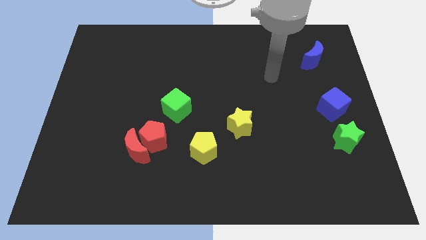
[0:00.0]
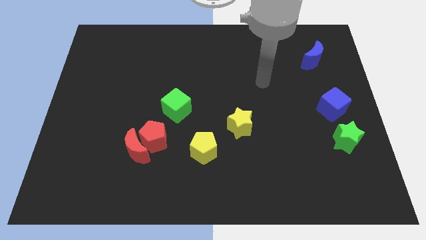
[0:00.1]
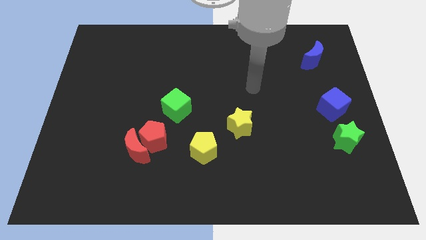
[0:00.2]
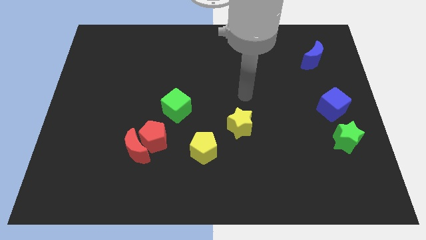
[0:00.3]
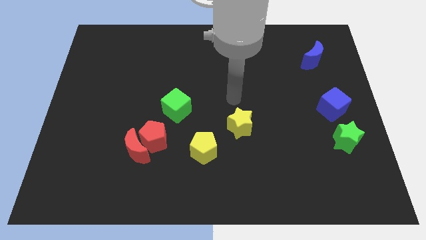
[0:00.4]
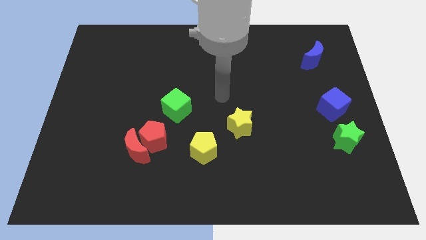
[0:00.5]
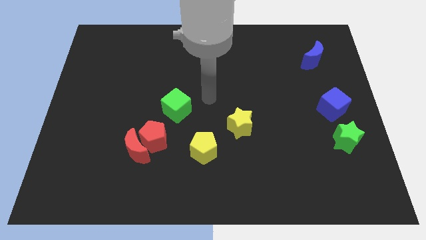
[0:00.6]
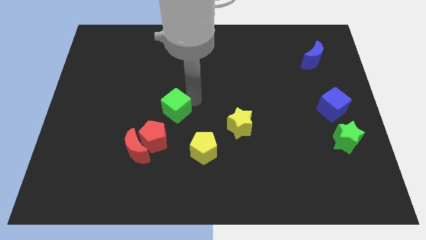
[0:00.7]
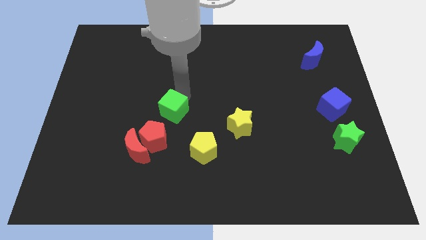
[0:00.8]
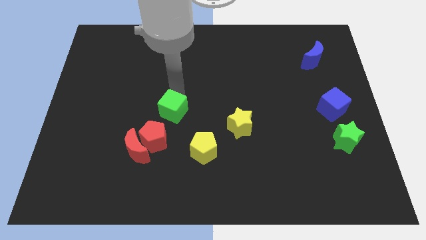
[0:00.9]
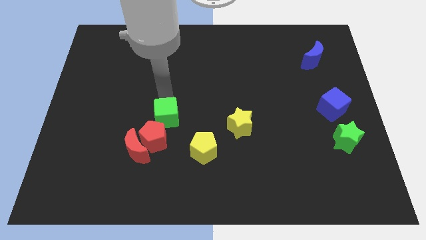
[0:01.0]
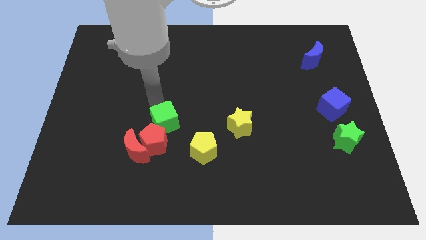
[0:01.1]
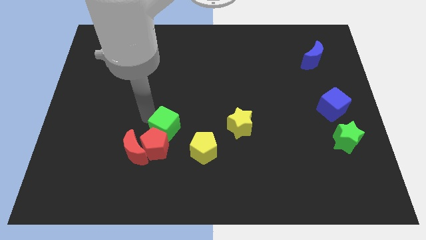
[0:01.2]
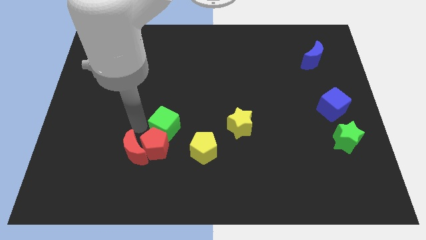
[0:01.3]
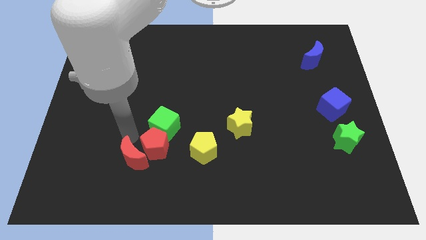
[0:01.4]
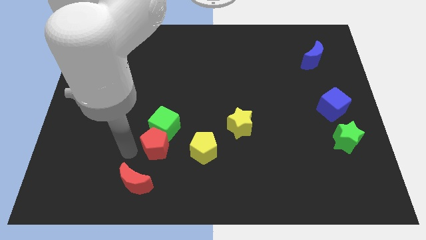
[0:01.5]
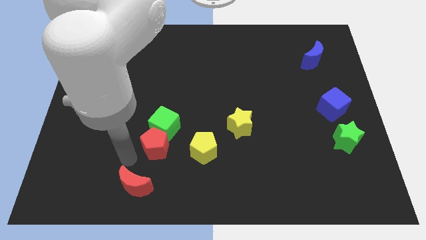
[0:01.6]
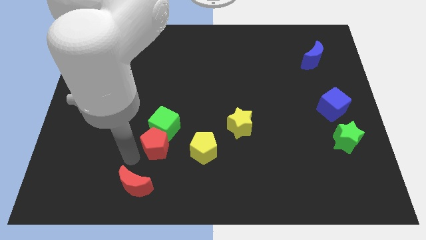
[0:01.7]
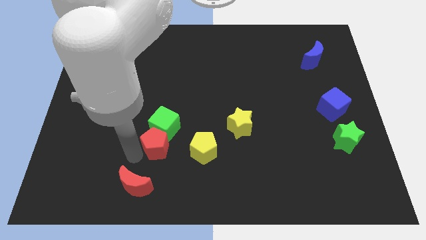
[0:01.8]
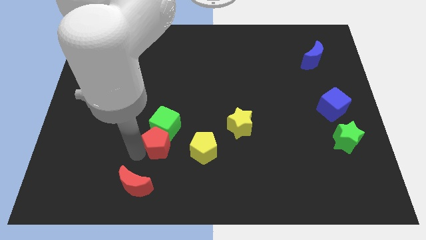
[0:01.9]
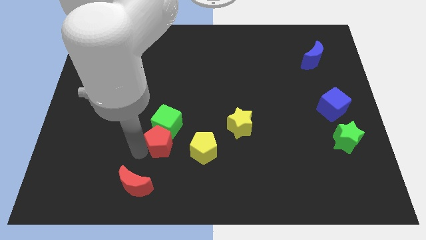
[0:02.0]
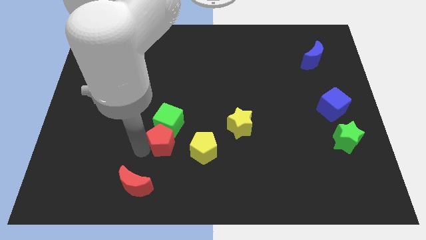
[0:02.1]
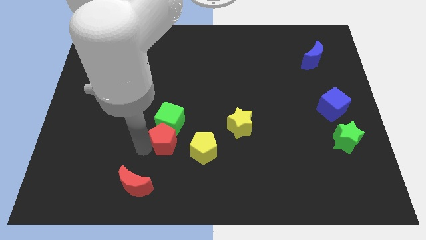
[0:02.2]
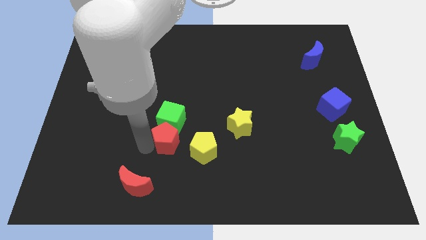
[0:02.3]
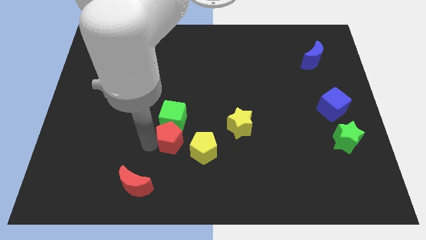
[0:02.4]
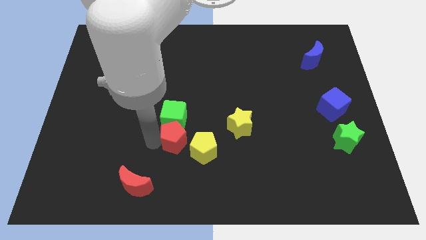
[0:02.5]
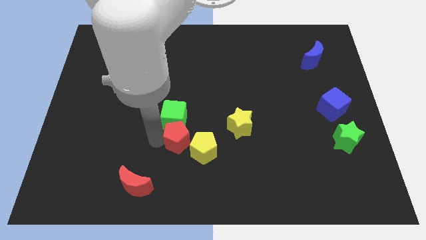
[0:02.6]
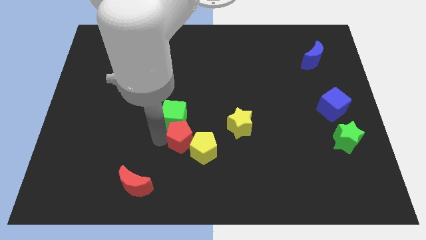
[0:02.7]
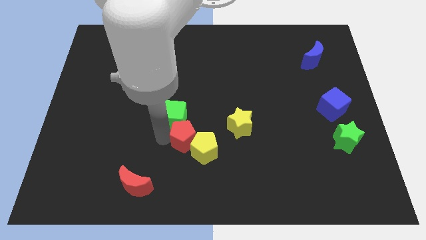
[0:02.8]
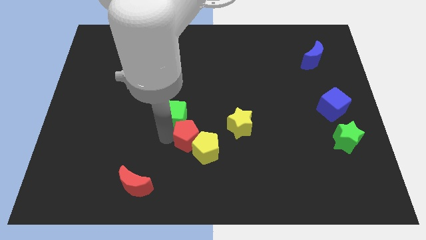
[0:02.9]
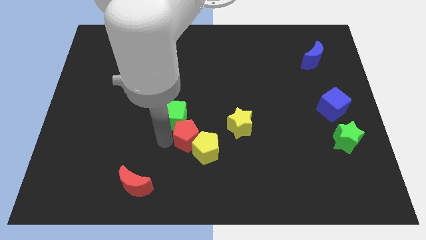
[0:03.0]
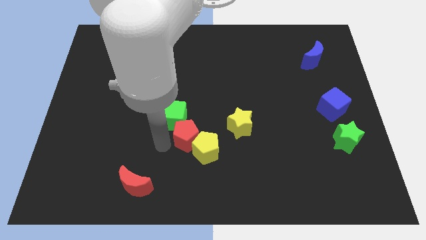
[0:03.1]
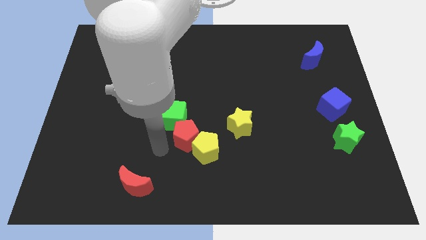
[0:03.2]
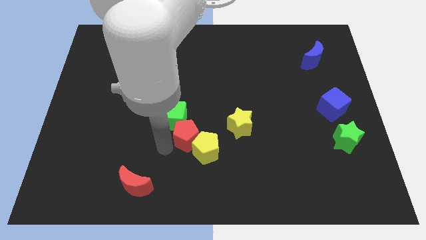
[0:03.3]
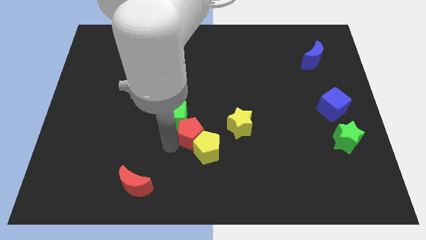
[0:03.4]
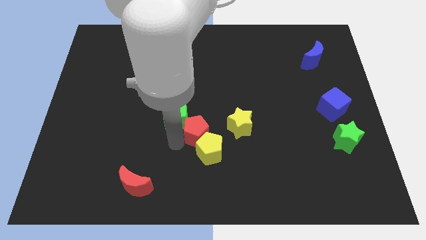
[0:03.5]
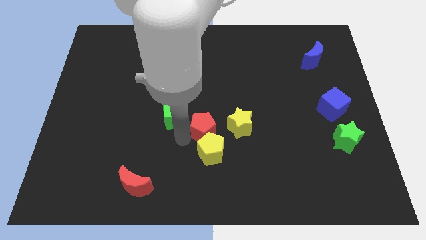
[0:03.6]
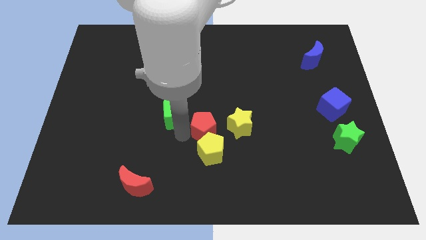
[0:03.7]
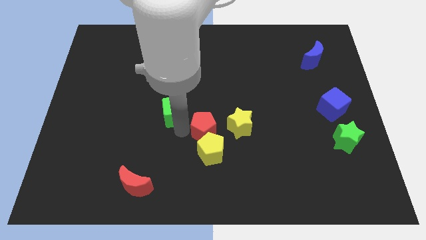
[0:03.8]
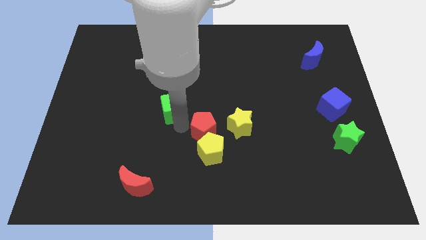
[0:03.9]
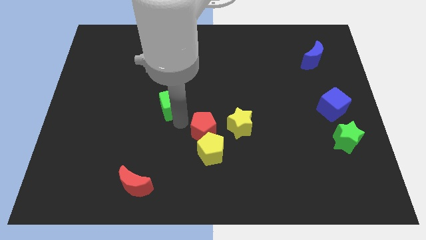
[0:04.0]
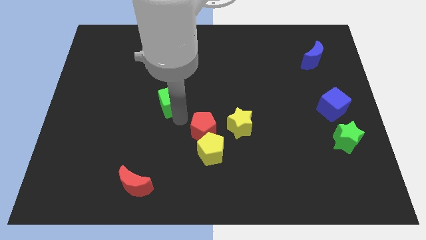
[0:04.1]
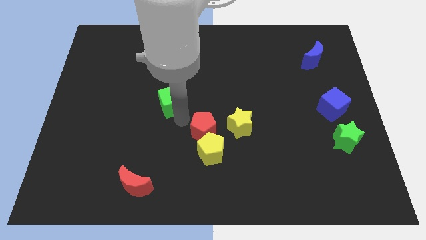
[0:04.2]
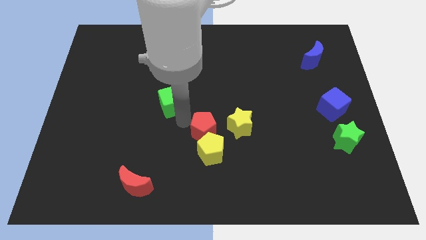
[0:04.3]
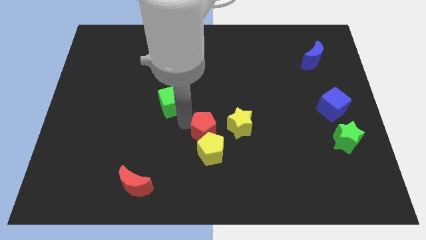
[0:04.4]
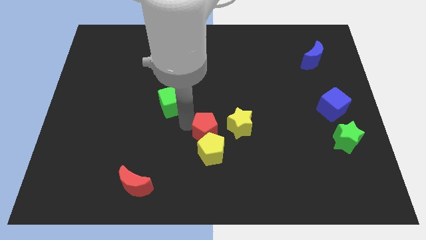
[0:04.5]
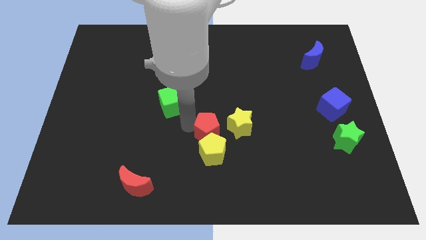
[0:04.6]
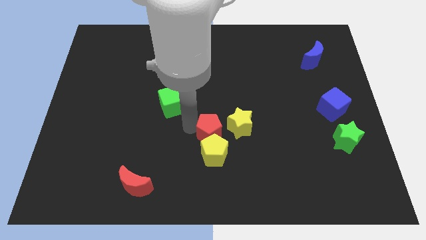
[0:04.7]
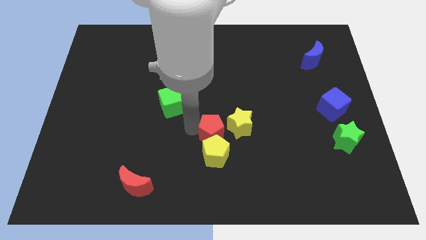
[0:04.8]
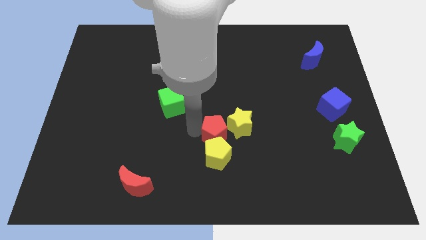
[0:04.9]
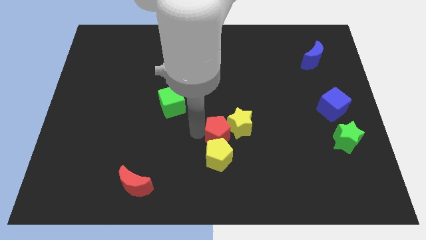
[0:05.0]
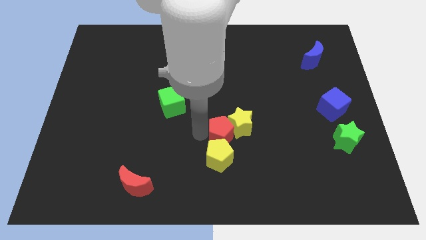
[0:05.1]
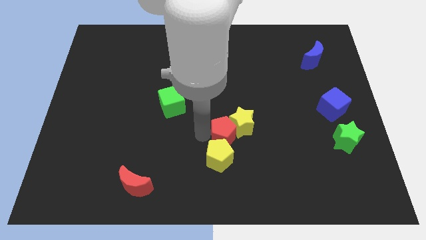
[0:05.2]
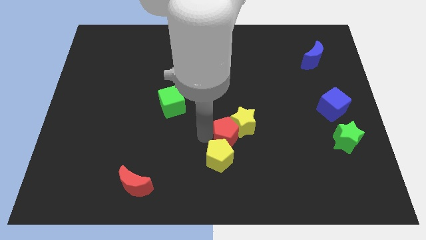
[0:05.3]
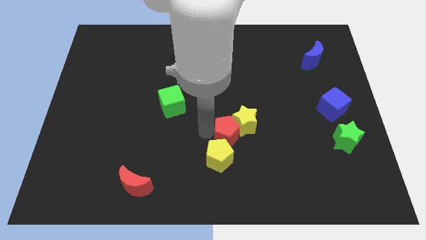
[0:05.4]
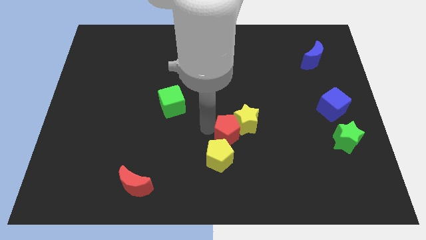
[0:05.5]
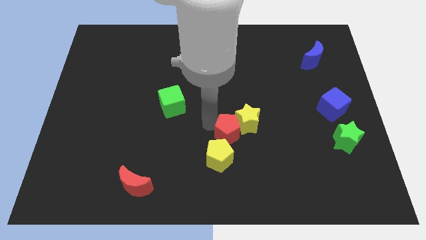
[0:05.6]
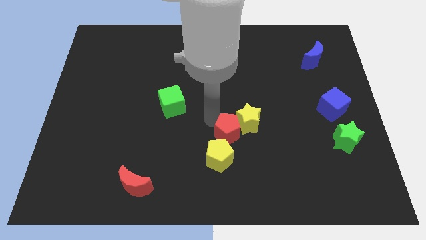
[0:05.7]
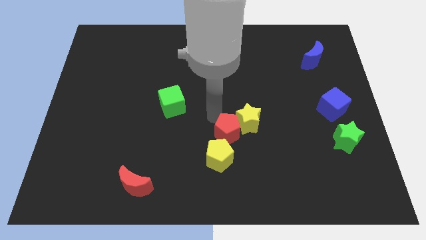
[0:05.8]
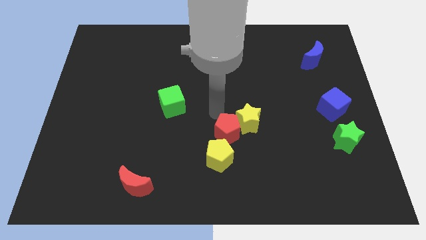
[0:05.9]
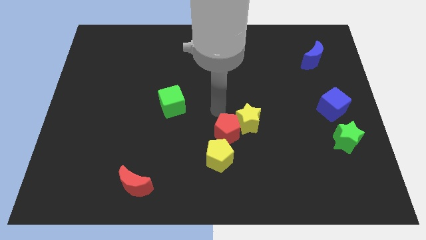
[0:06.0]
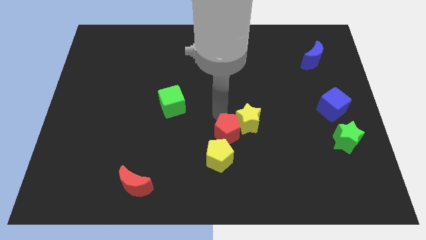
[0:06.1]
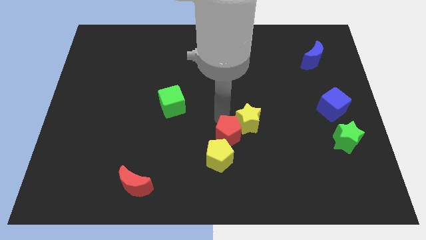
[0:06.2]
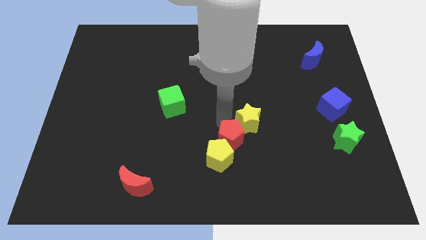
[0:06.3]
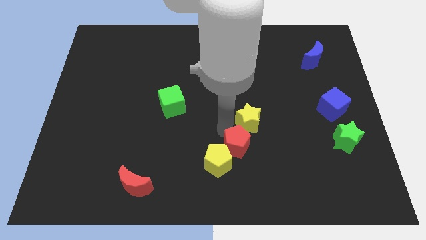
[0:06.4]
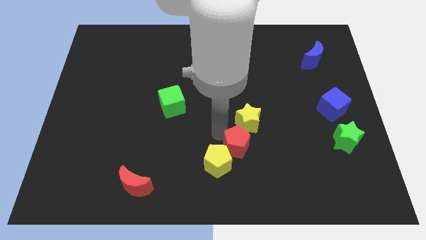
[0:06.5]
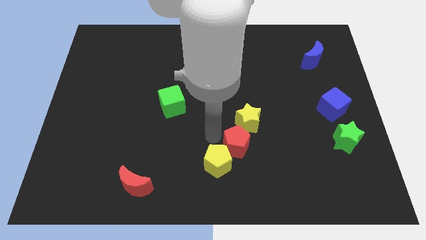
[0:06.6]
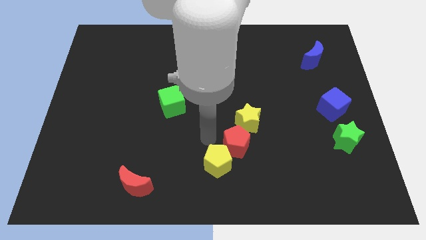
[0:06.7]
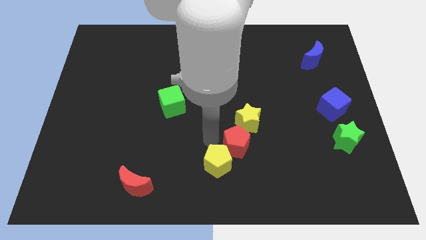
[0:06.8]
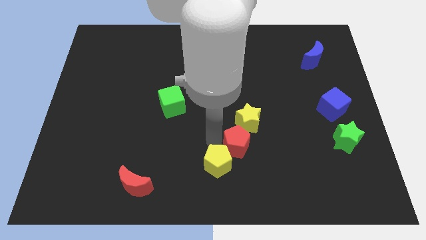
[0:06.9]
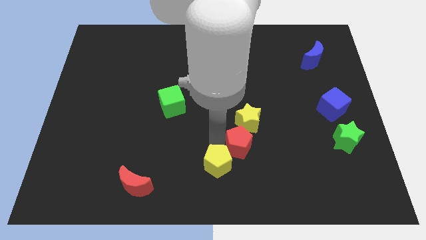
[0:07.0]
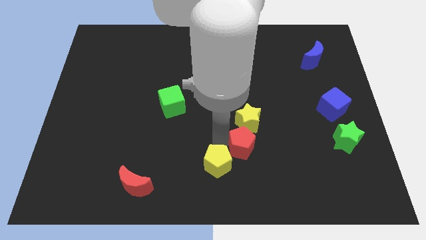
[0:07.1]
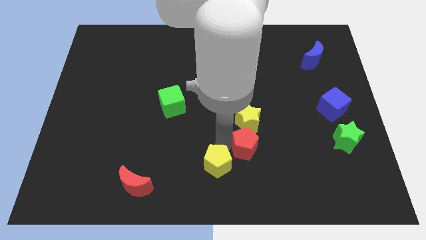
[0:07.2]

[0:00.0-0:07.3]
slide the red pentagon right

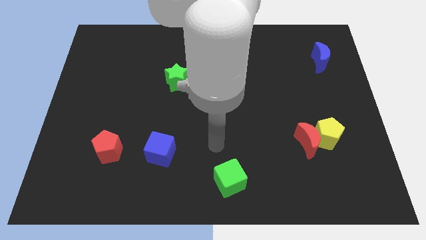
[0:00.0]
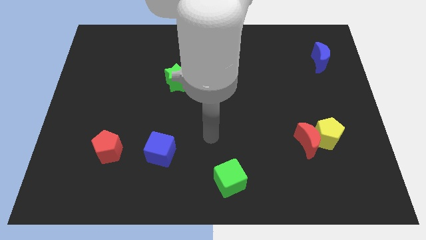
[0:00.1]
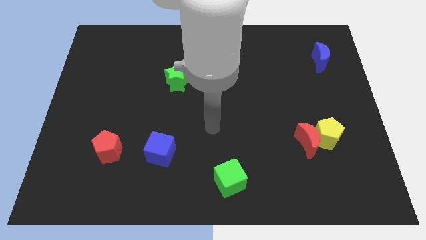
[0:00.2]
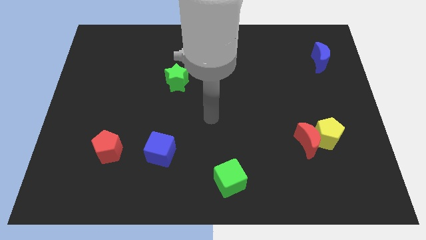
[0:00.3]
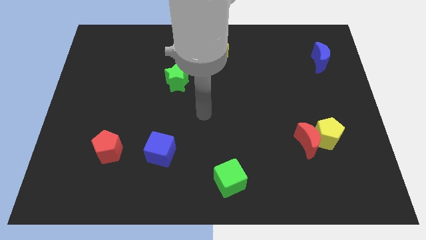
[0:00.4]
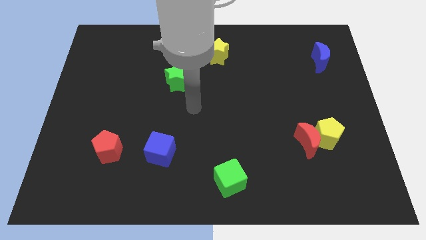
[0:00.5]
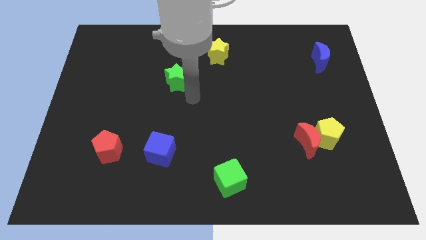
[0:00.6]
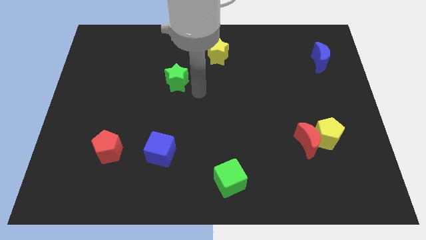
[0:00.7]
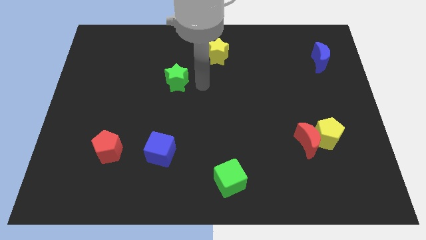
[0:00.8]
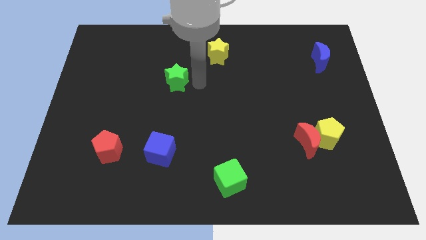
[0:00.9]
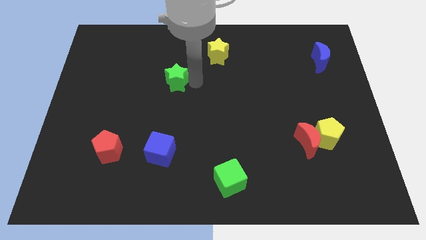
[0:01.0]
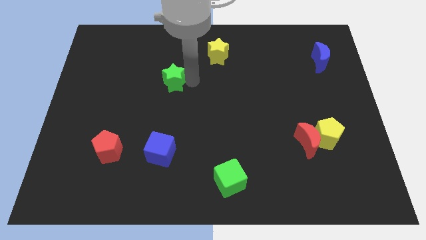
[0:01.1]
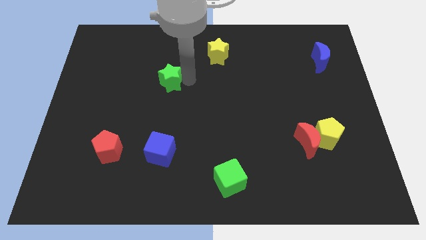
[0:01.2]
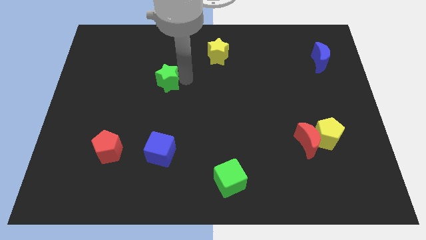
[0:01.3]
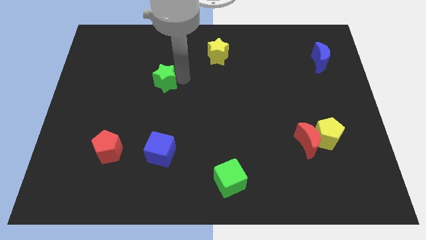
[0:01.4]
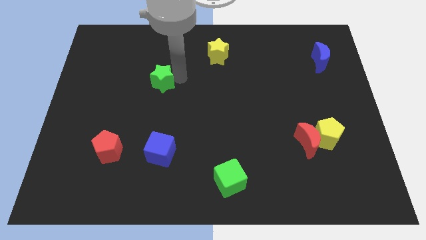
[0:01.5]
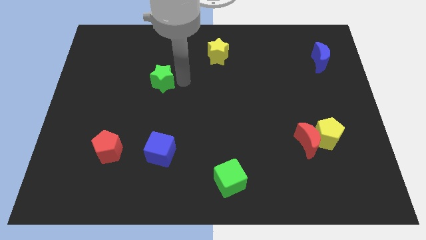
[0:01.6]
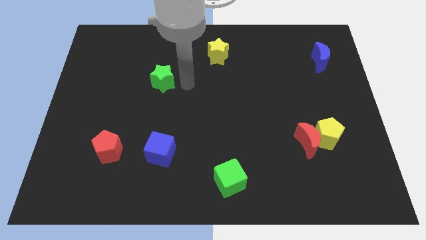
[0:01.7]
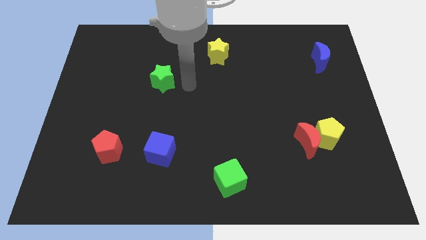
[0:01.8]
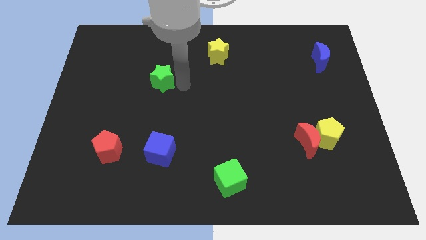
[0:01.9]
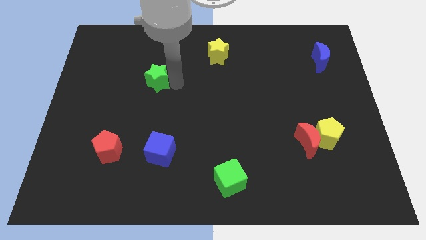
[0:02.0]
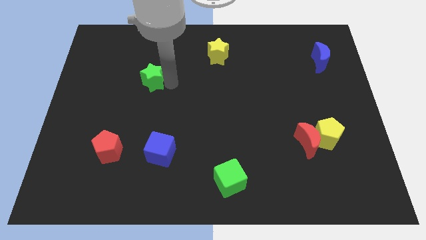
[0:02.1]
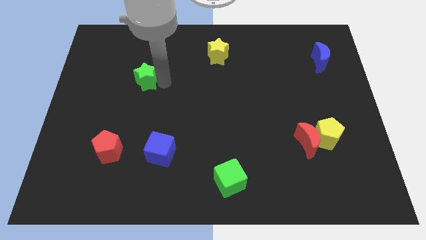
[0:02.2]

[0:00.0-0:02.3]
slightly slide the green star left
